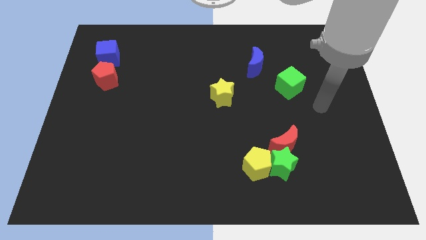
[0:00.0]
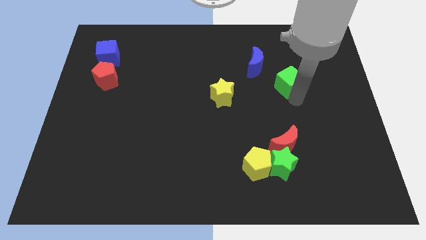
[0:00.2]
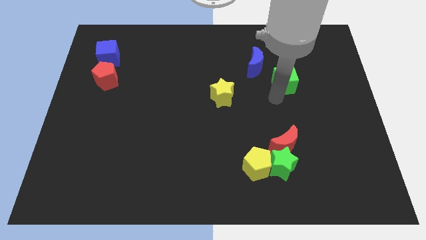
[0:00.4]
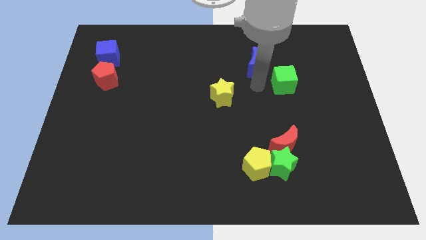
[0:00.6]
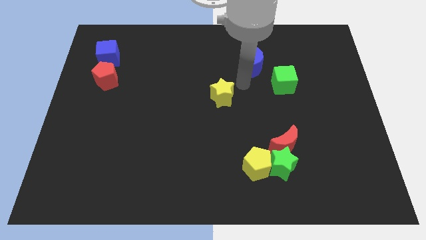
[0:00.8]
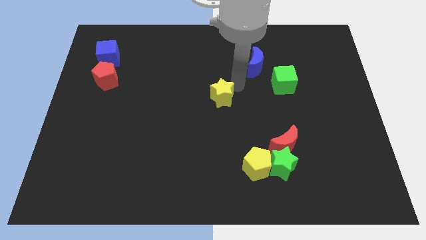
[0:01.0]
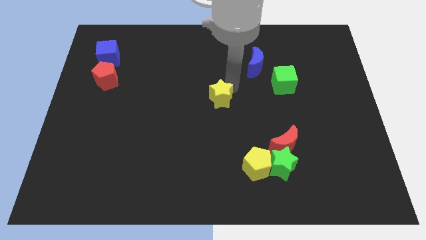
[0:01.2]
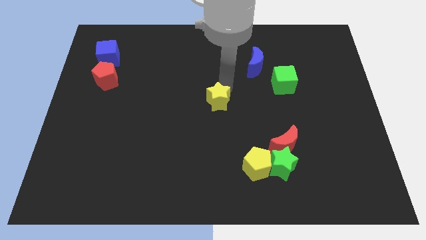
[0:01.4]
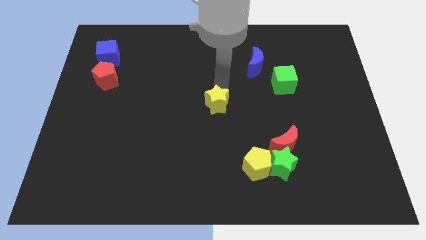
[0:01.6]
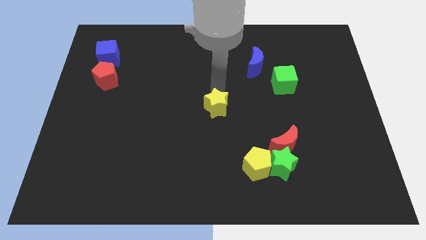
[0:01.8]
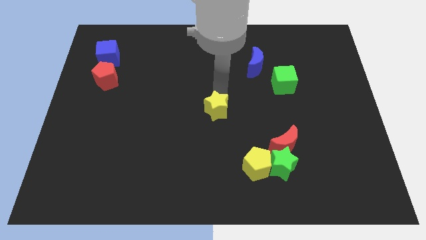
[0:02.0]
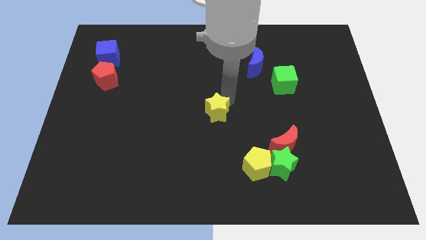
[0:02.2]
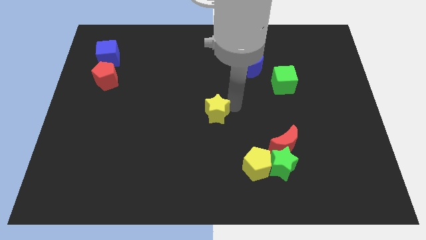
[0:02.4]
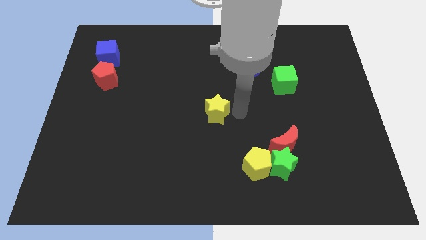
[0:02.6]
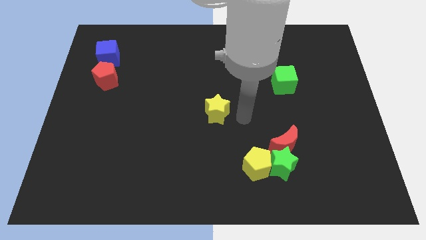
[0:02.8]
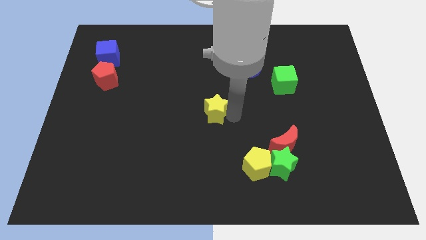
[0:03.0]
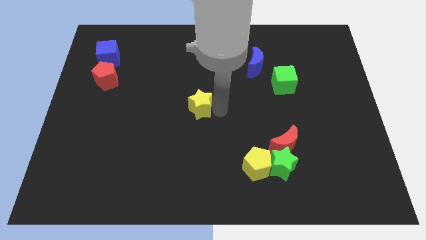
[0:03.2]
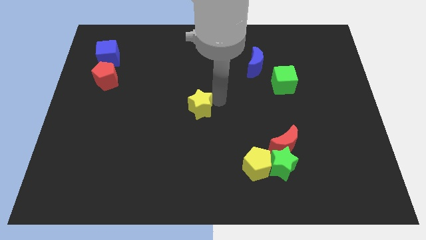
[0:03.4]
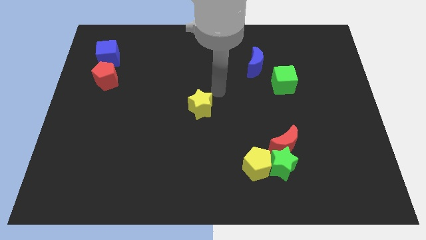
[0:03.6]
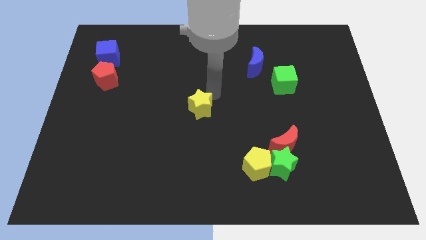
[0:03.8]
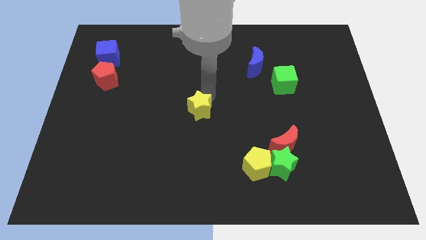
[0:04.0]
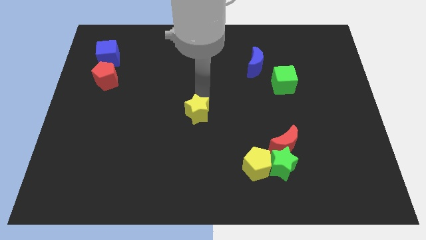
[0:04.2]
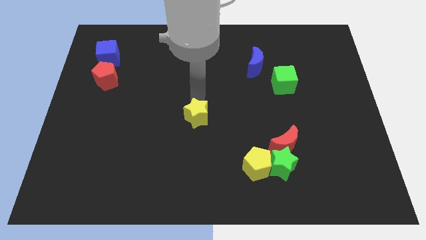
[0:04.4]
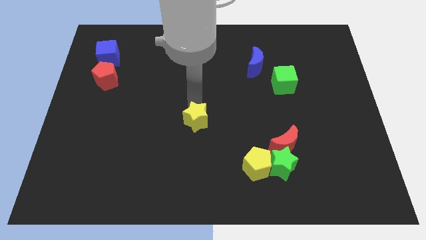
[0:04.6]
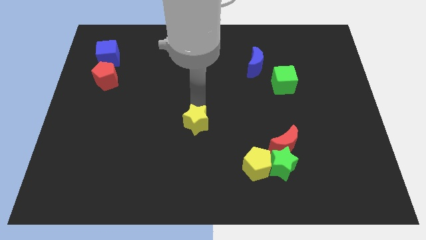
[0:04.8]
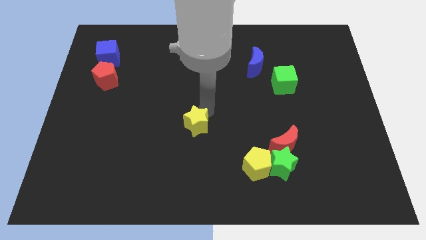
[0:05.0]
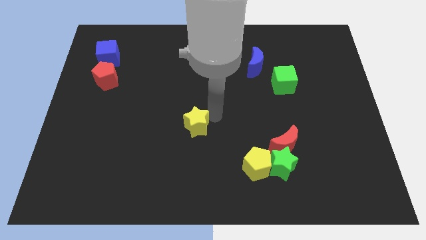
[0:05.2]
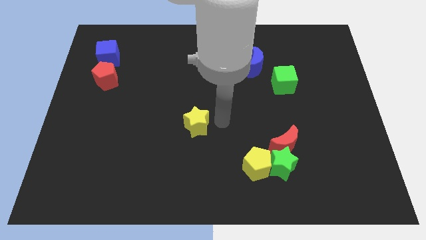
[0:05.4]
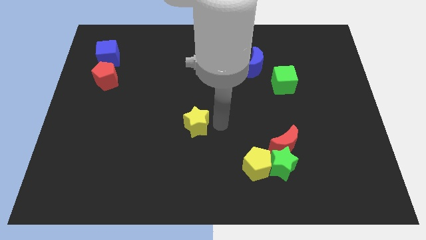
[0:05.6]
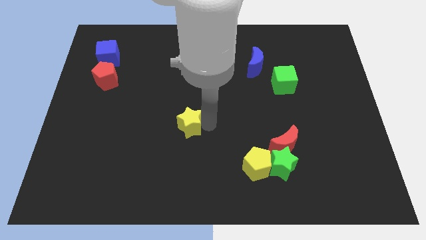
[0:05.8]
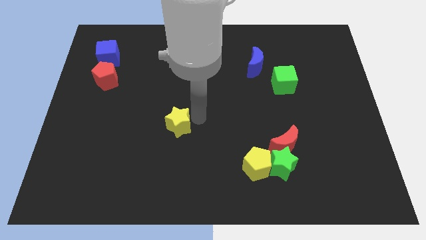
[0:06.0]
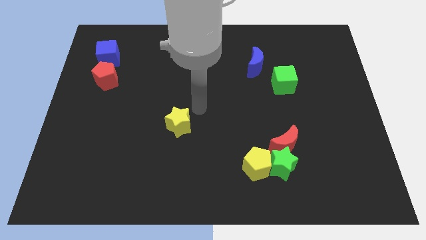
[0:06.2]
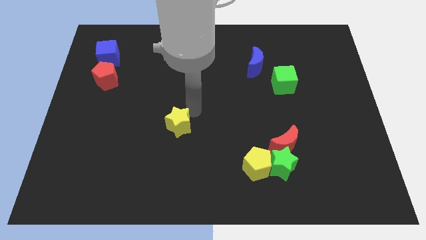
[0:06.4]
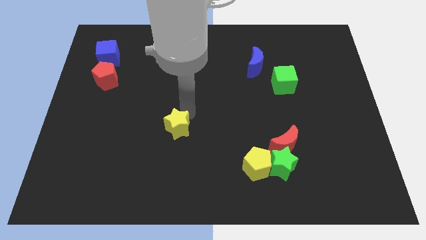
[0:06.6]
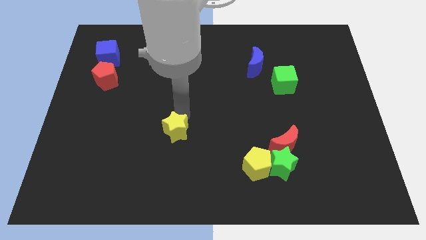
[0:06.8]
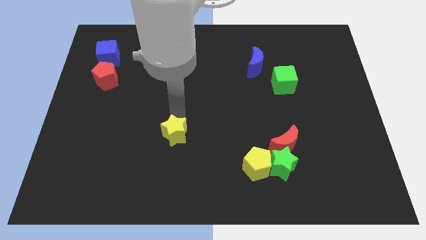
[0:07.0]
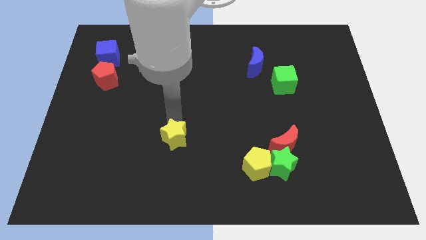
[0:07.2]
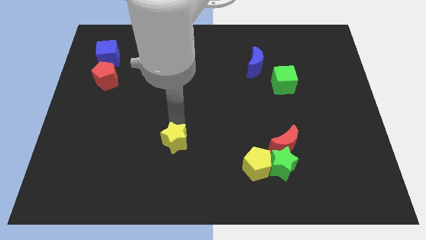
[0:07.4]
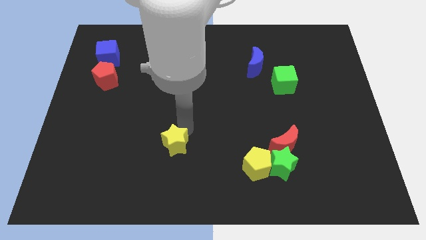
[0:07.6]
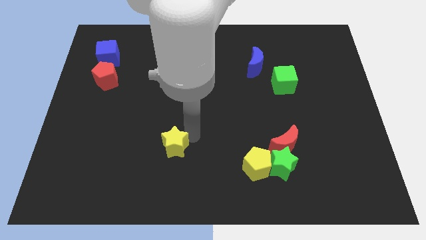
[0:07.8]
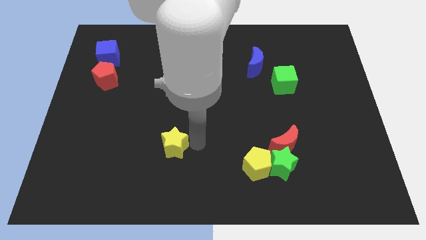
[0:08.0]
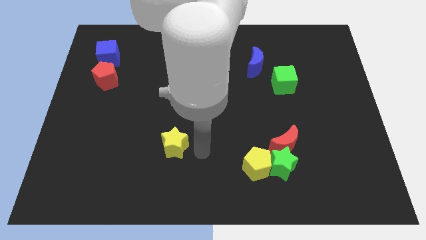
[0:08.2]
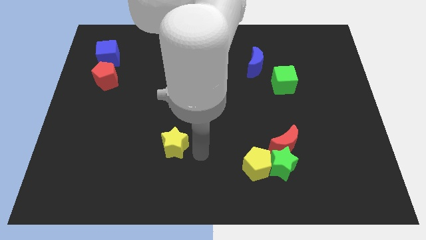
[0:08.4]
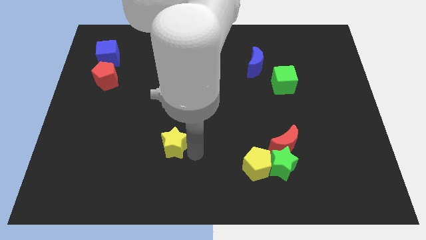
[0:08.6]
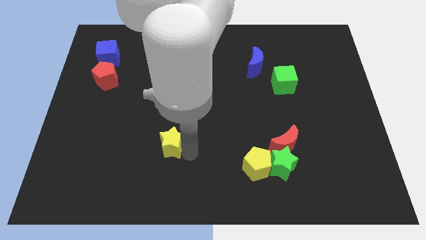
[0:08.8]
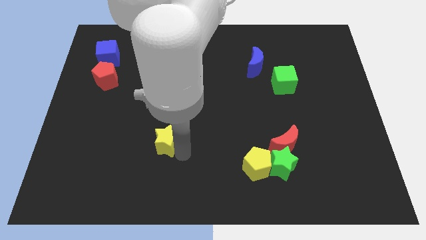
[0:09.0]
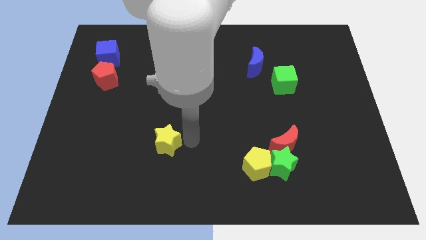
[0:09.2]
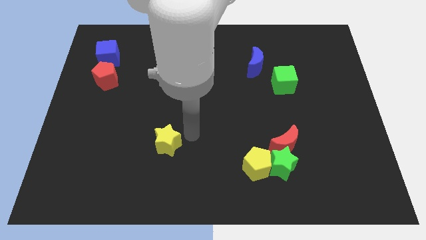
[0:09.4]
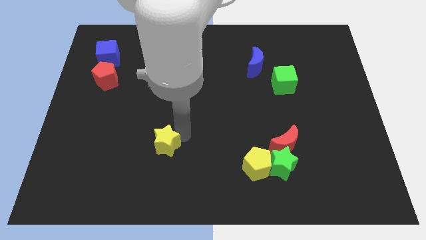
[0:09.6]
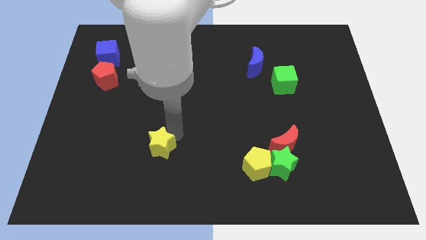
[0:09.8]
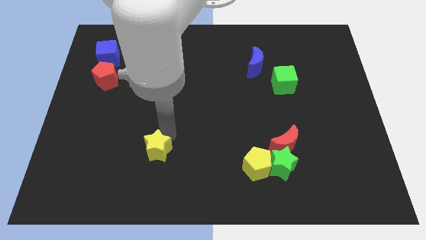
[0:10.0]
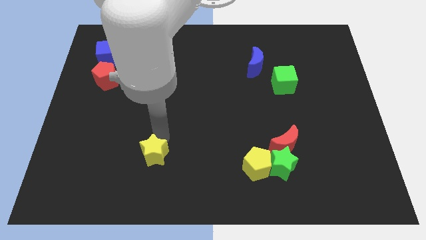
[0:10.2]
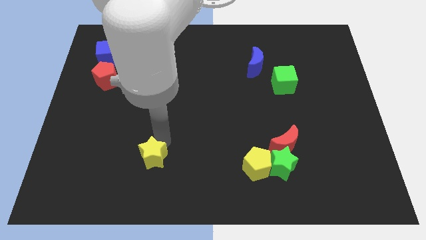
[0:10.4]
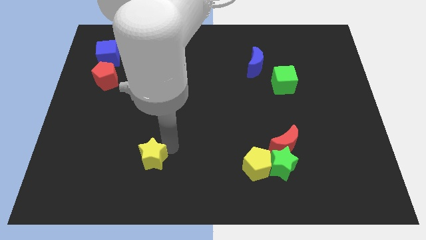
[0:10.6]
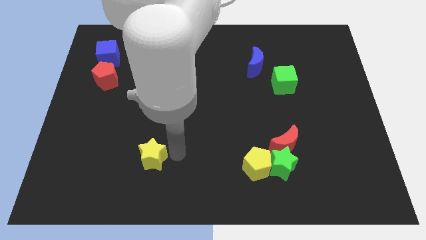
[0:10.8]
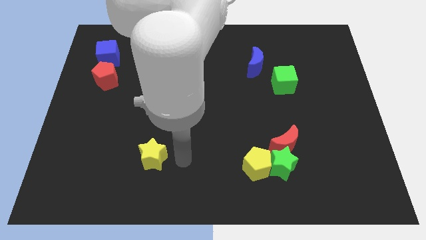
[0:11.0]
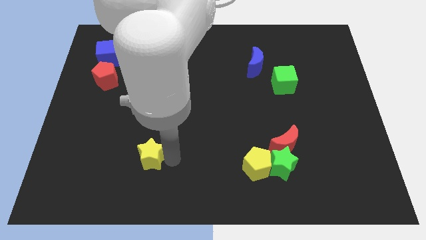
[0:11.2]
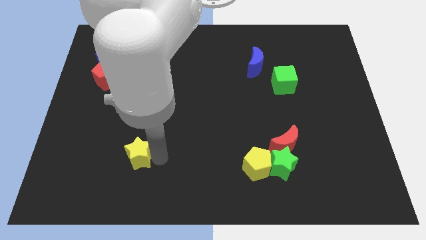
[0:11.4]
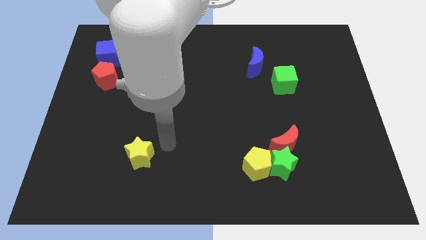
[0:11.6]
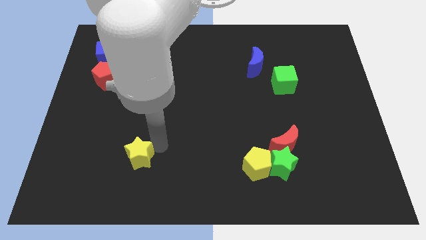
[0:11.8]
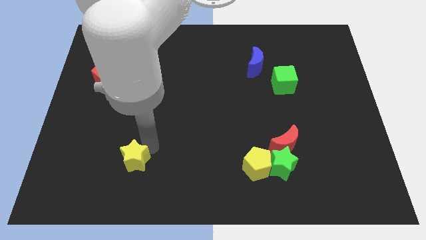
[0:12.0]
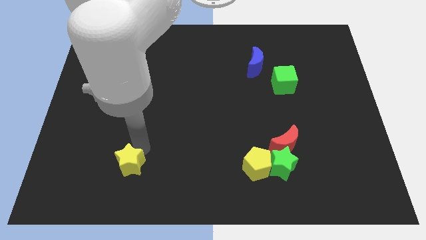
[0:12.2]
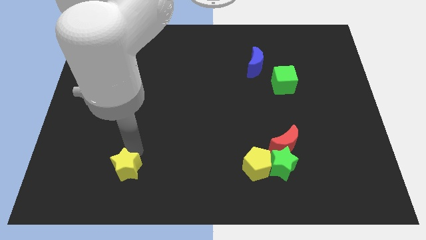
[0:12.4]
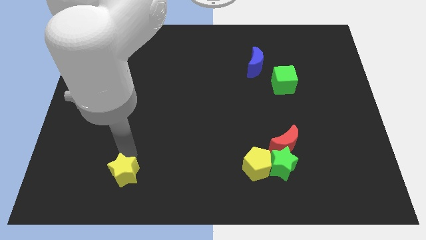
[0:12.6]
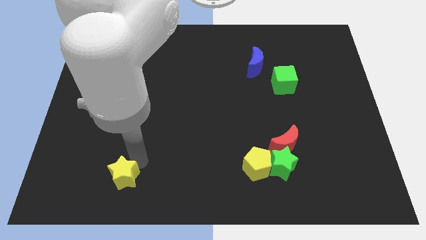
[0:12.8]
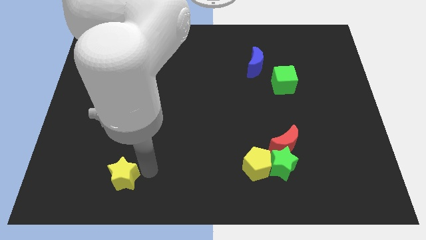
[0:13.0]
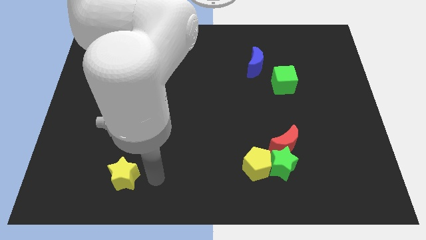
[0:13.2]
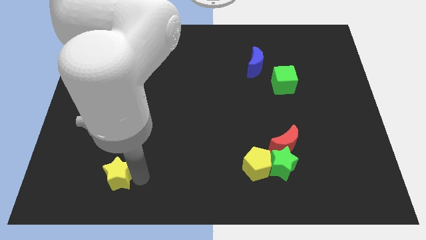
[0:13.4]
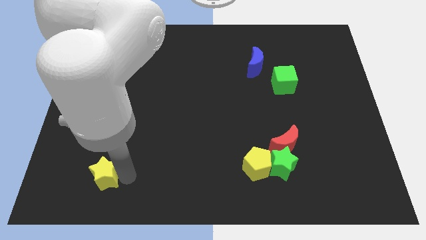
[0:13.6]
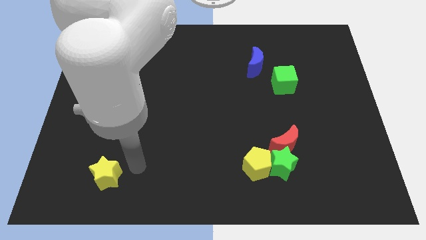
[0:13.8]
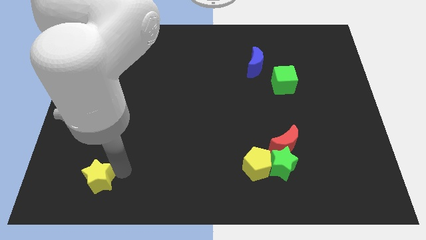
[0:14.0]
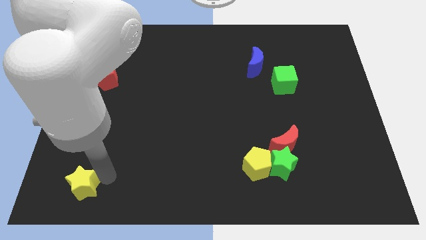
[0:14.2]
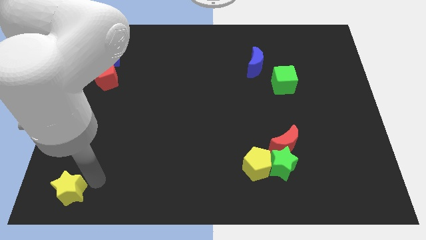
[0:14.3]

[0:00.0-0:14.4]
push the yellow star to the bottom left corner
